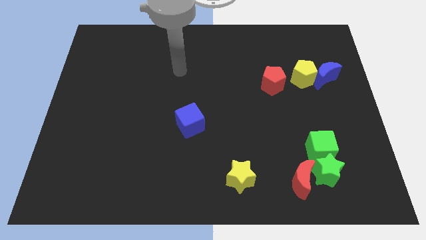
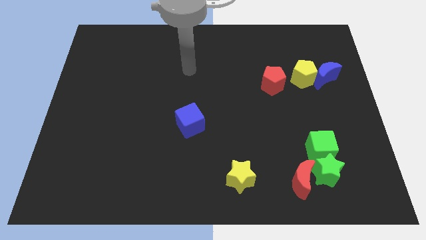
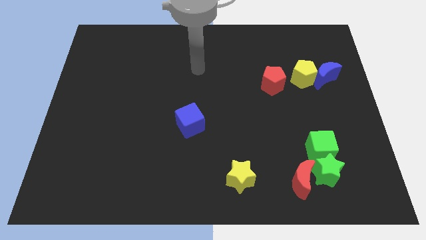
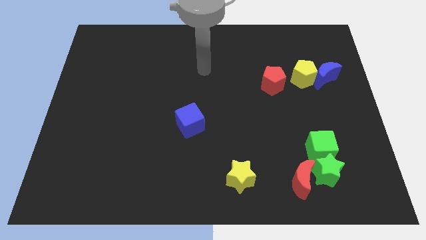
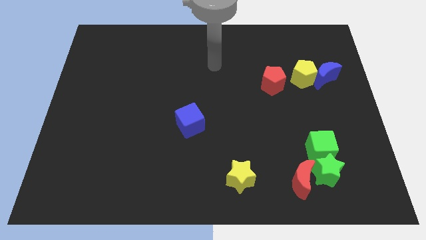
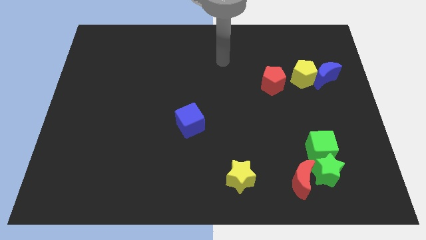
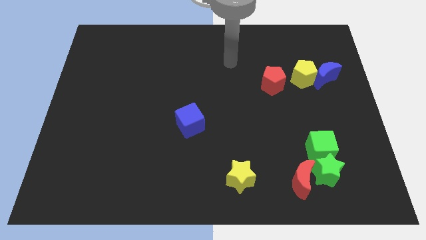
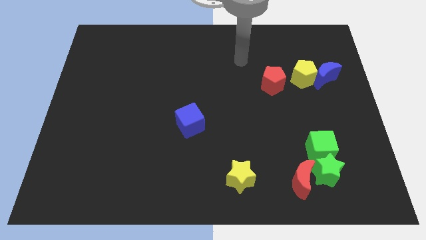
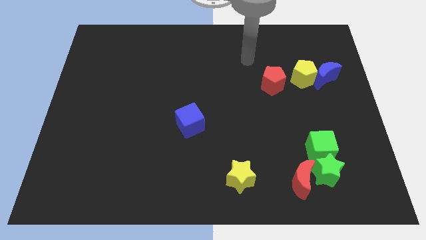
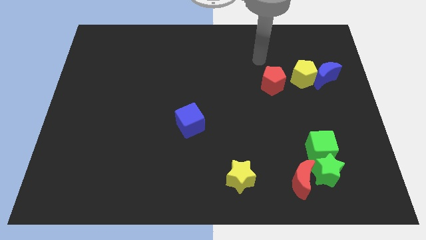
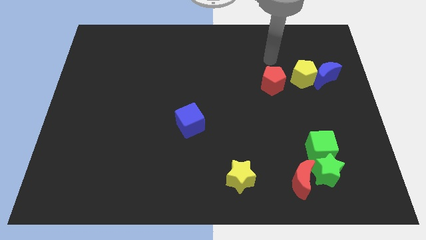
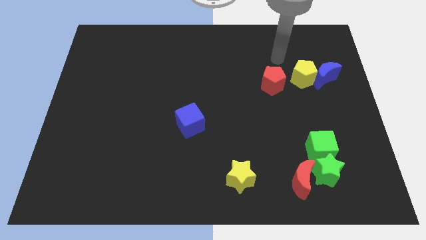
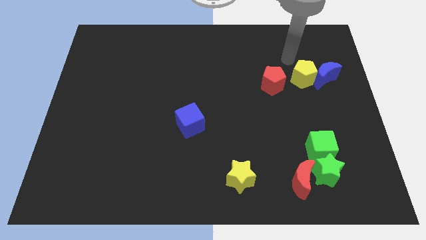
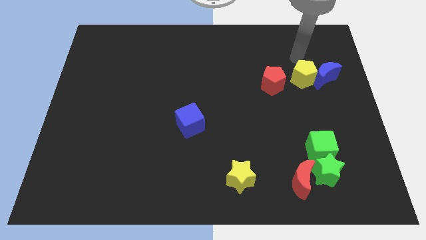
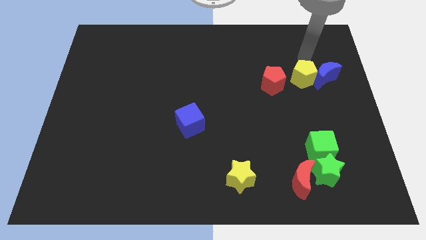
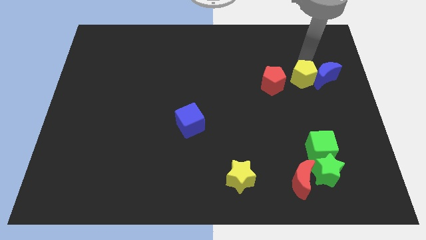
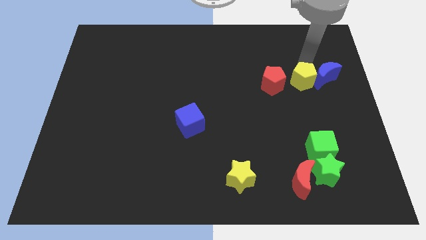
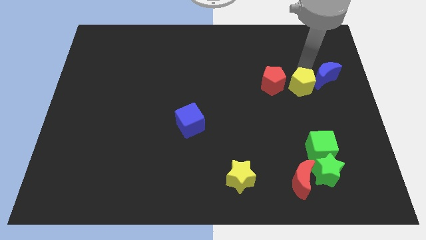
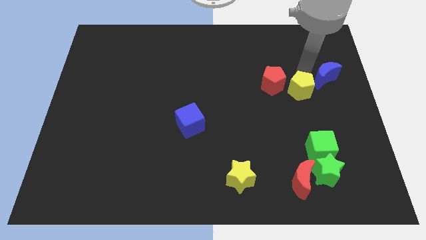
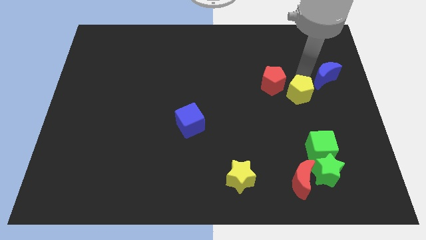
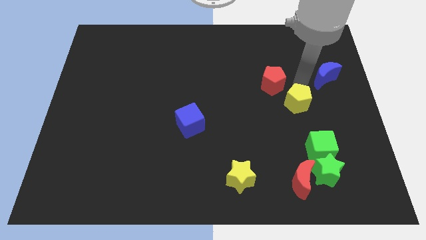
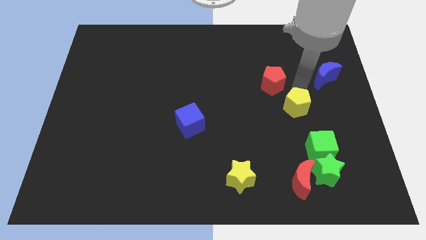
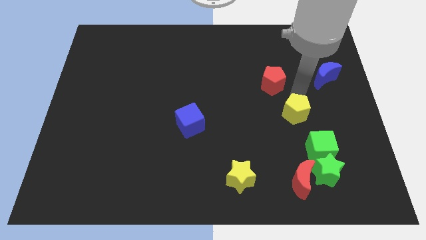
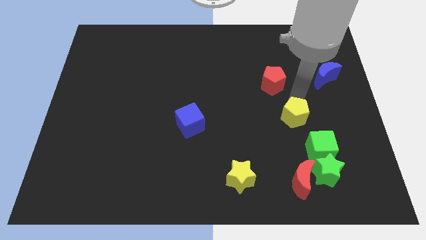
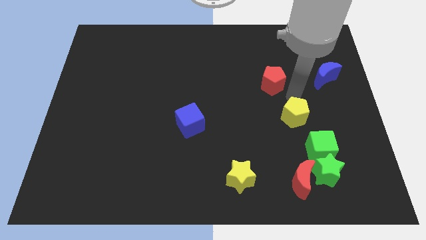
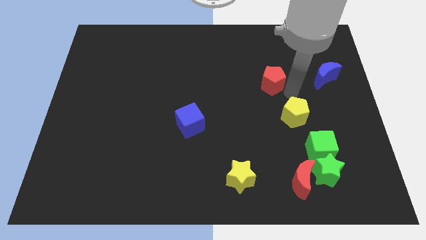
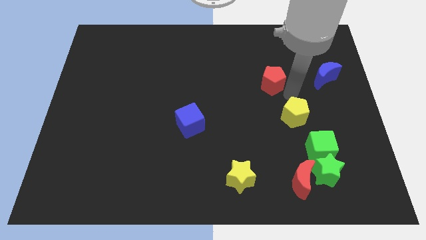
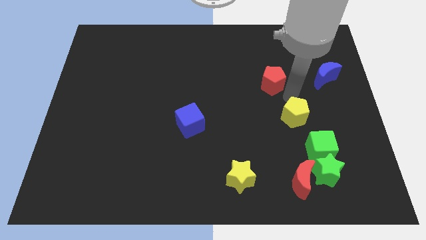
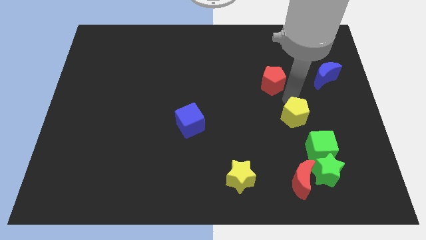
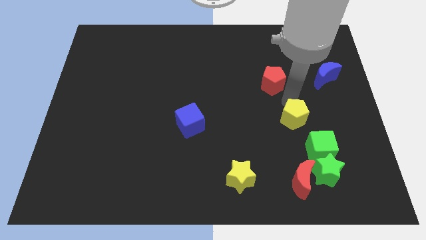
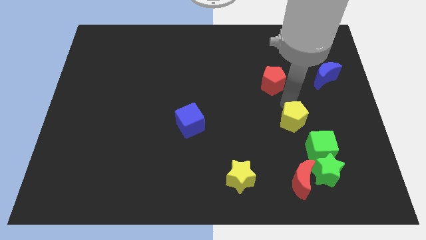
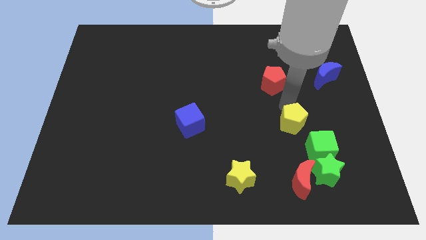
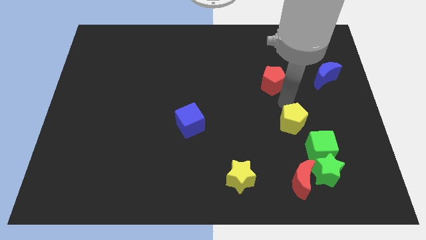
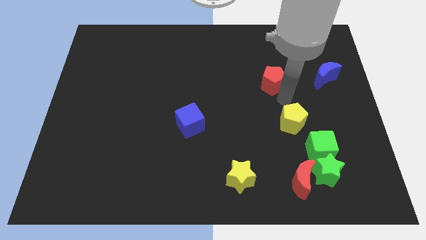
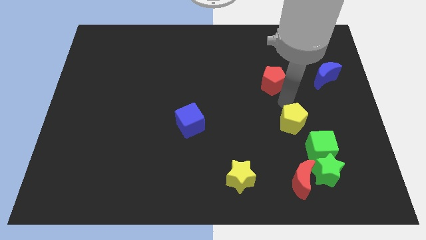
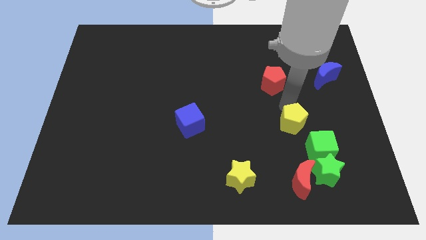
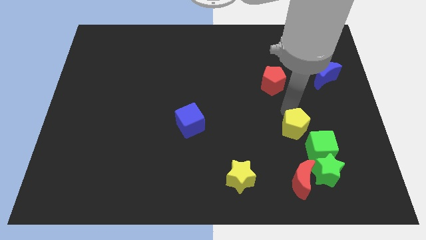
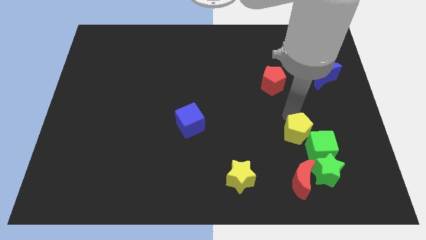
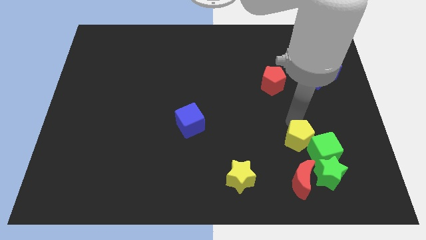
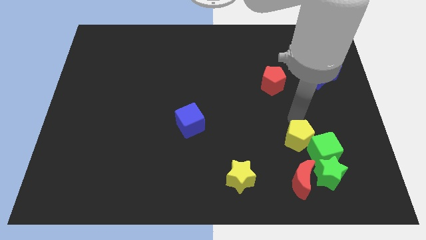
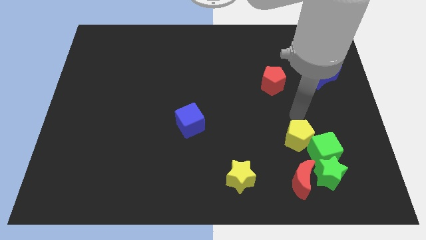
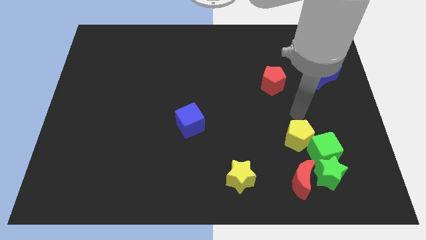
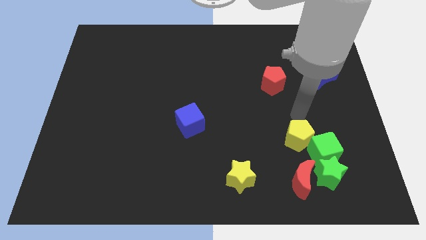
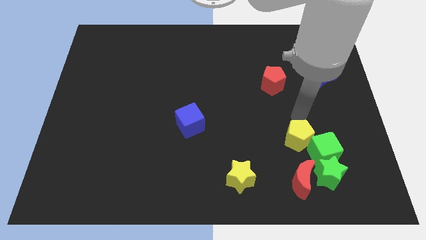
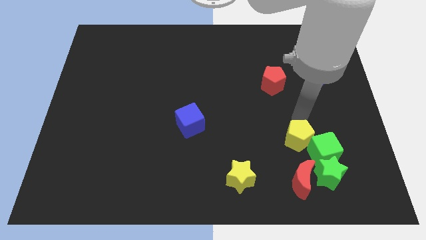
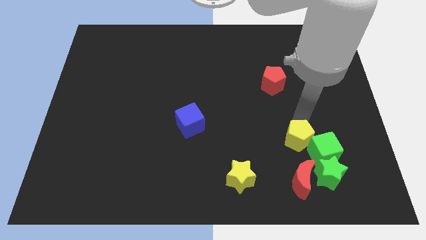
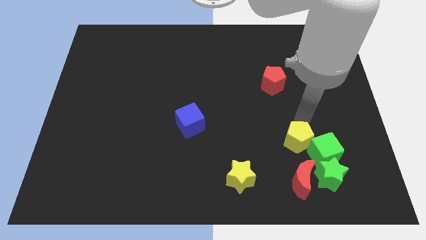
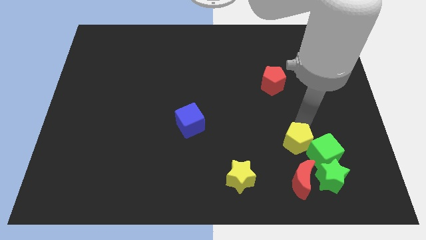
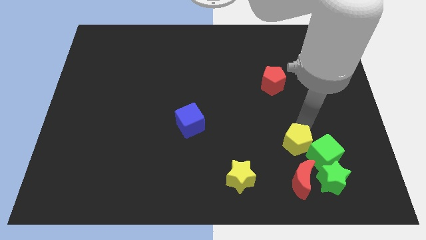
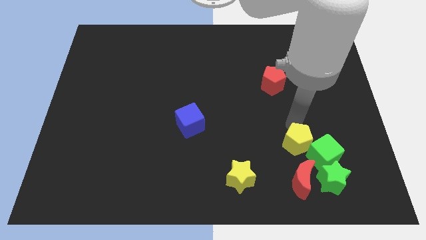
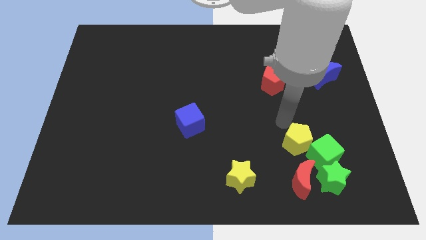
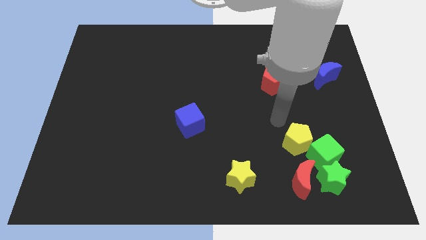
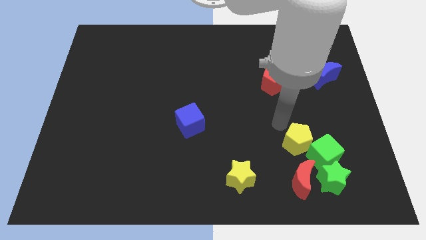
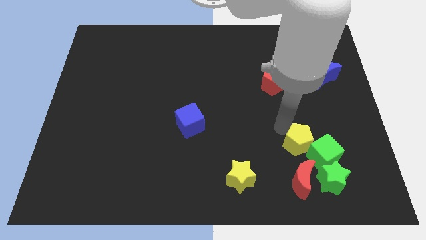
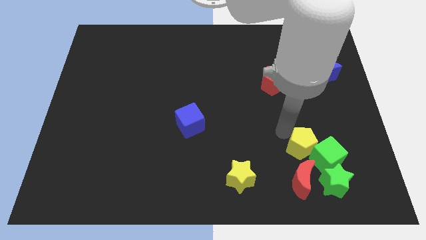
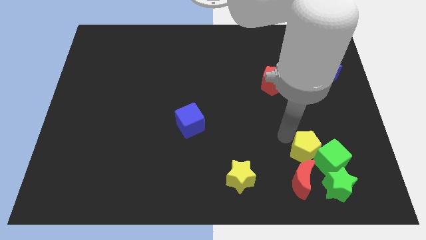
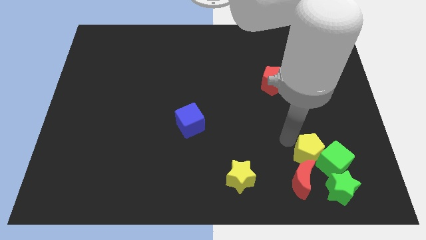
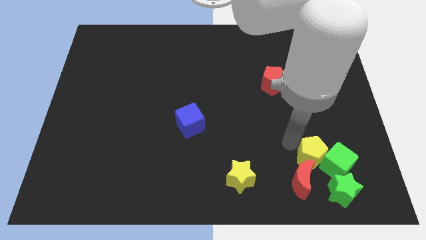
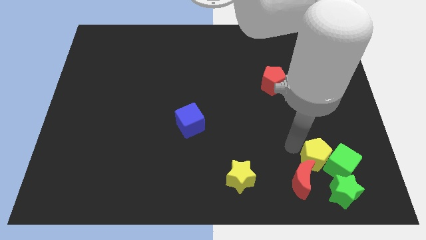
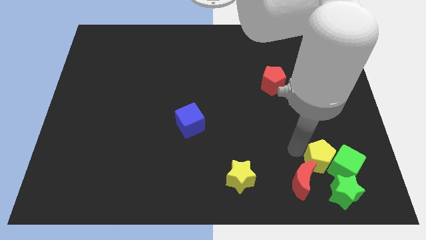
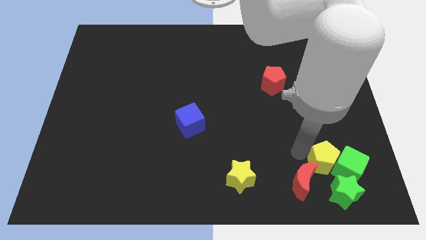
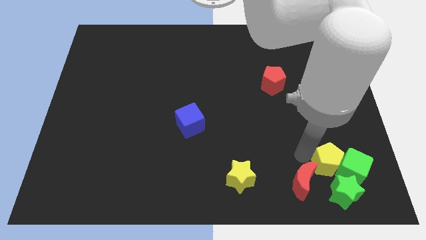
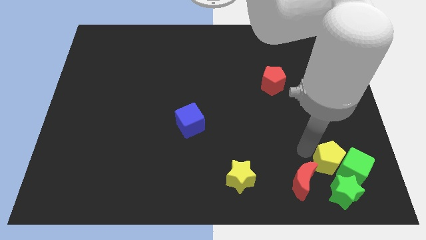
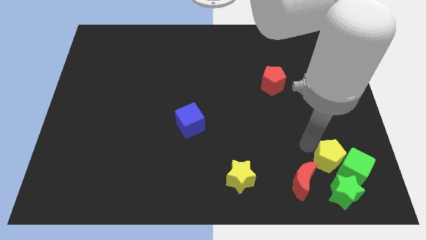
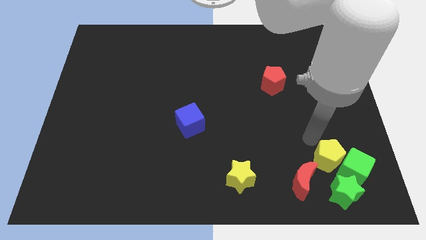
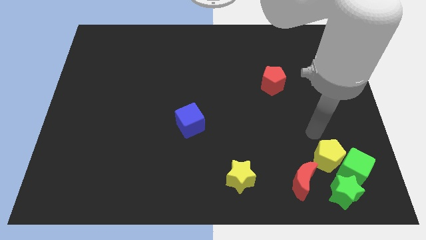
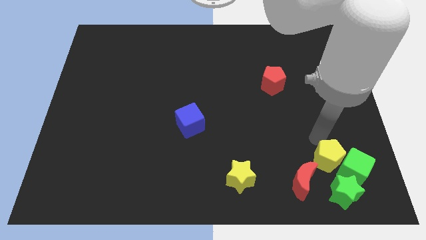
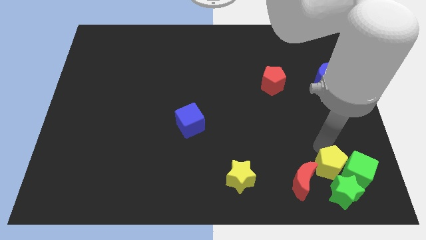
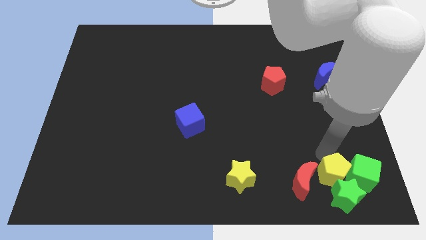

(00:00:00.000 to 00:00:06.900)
put the yellow pentagon close to the green star

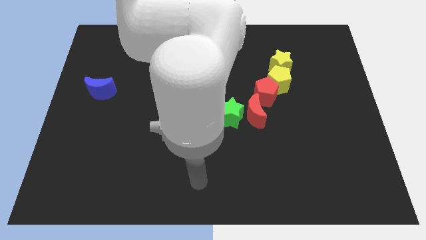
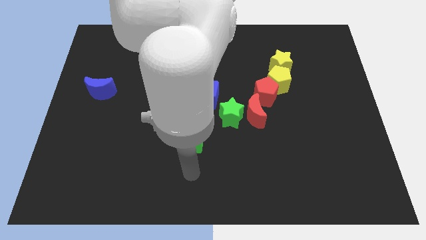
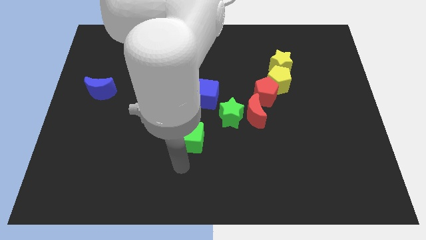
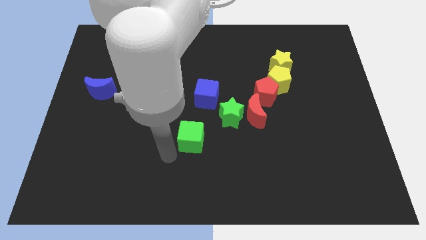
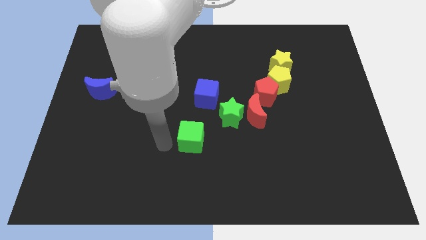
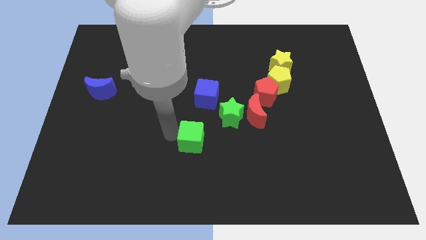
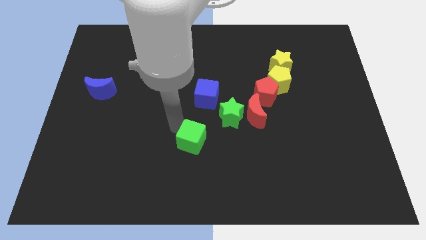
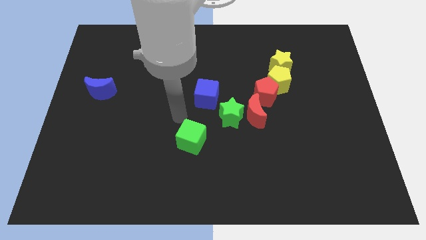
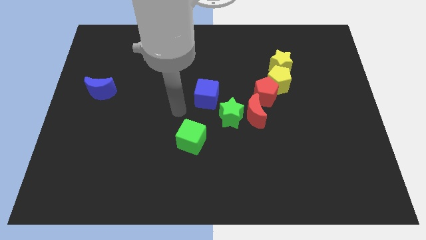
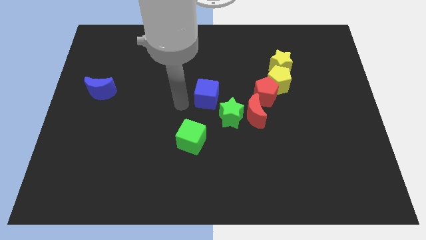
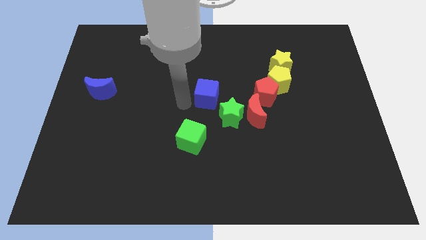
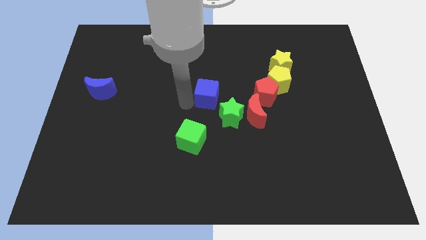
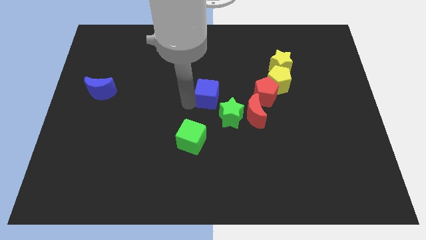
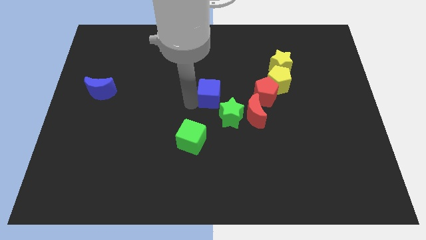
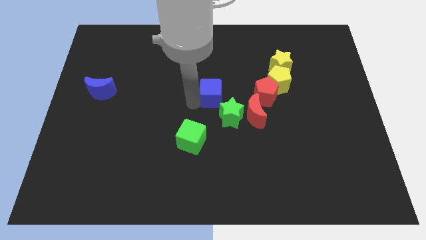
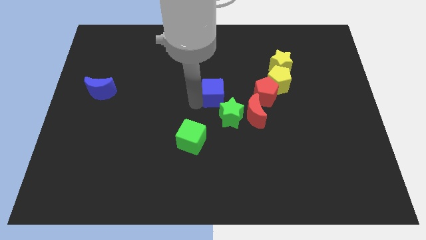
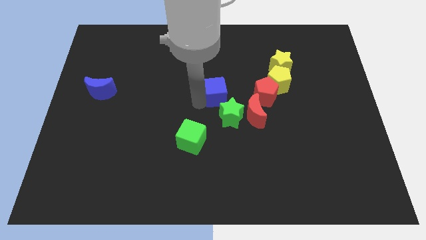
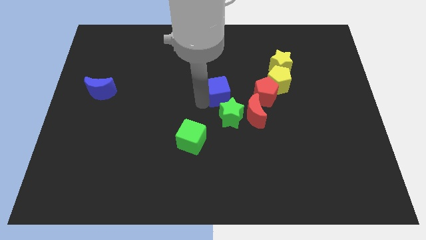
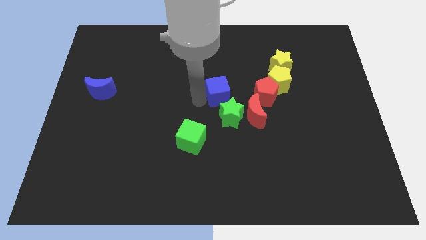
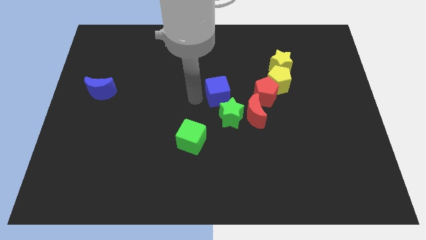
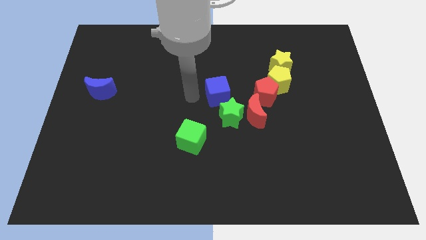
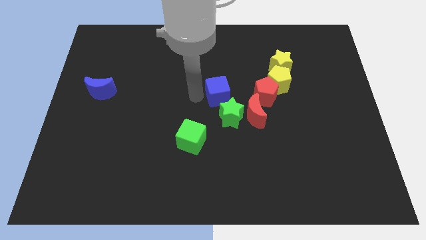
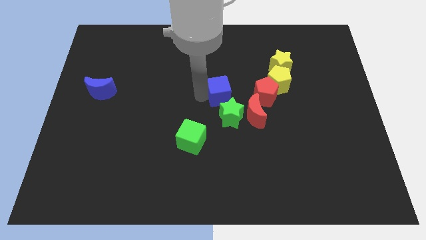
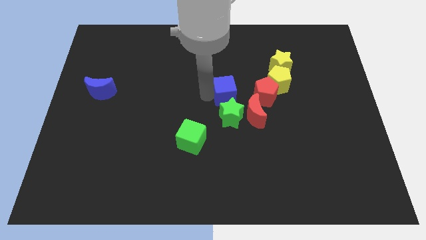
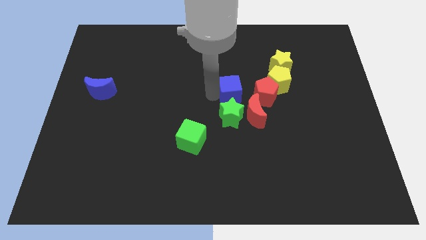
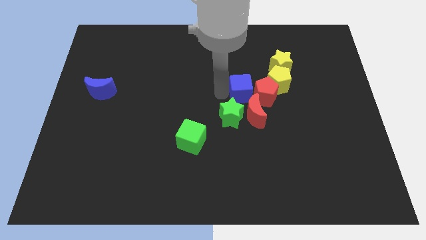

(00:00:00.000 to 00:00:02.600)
push the blue cube to the red pentagon
